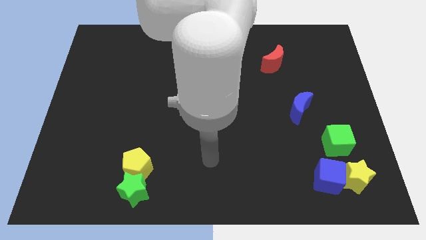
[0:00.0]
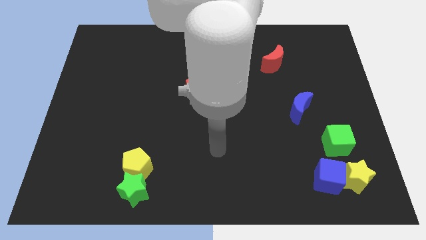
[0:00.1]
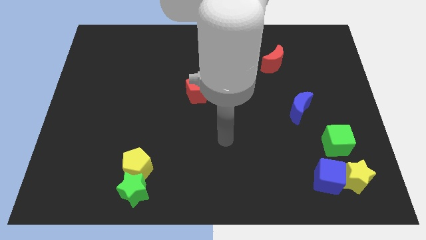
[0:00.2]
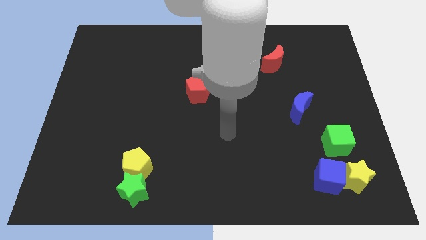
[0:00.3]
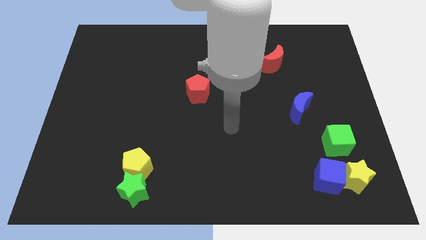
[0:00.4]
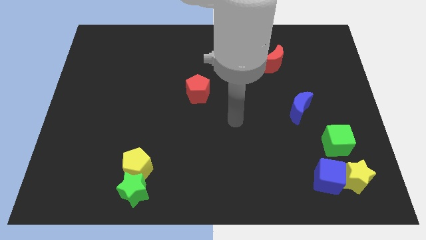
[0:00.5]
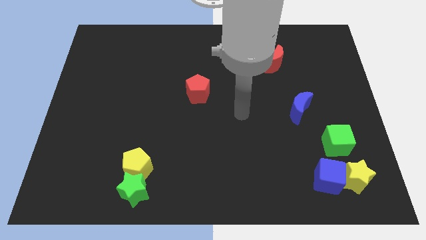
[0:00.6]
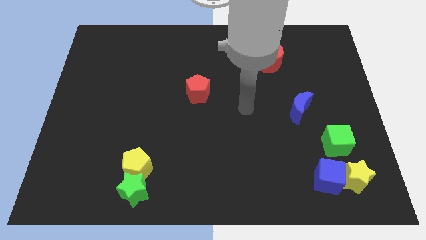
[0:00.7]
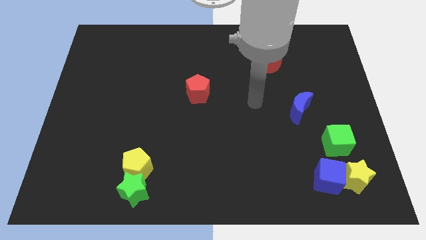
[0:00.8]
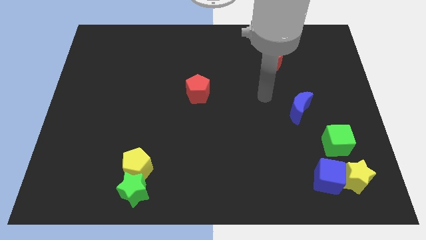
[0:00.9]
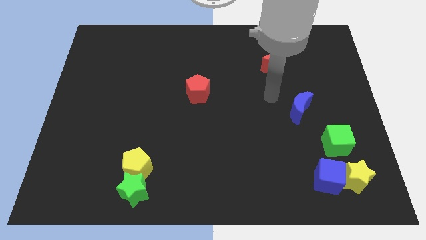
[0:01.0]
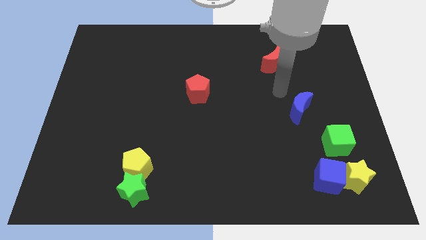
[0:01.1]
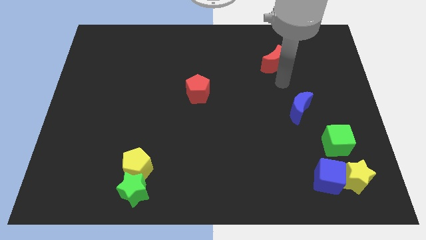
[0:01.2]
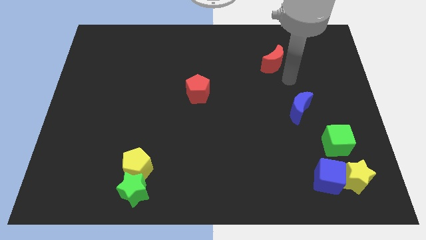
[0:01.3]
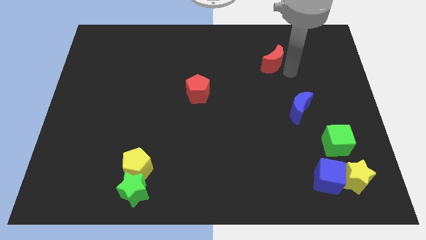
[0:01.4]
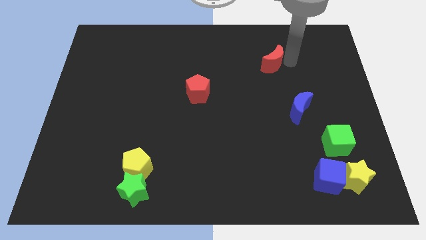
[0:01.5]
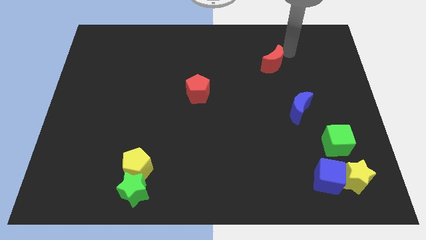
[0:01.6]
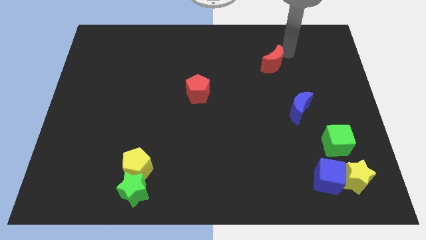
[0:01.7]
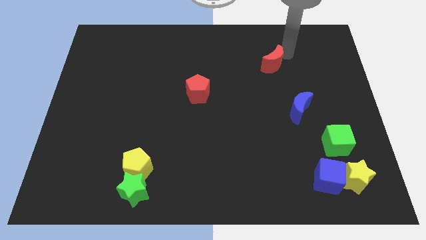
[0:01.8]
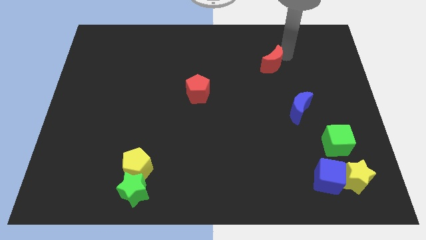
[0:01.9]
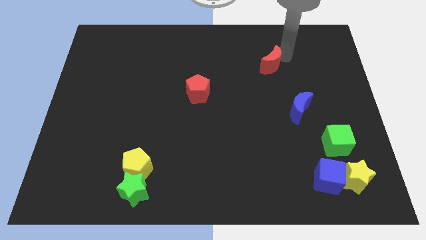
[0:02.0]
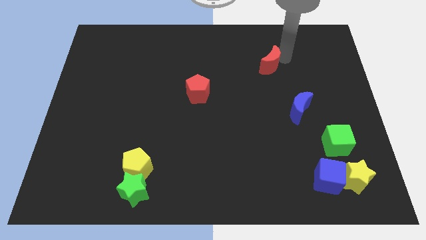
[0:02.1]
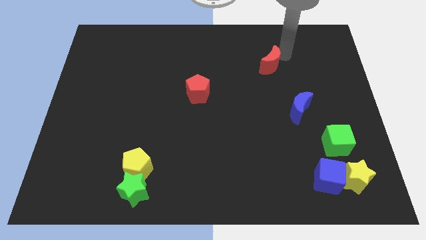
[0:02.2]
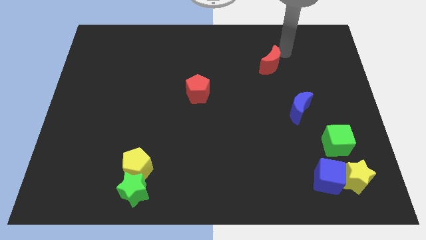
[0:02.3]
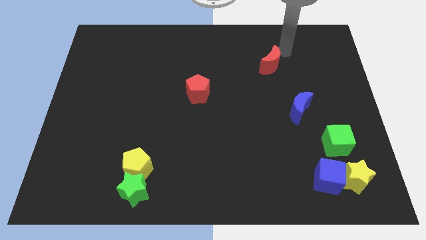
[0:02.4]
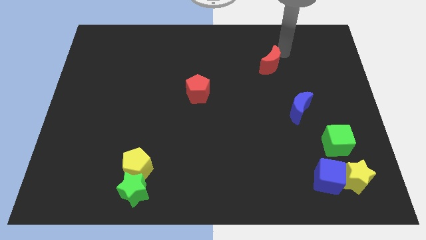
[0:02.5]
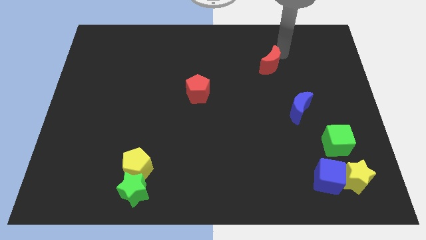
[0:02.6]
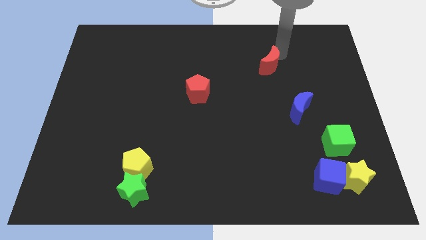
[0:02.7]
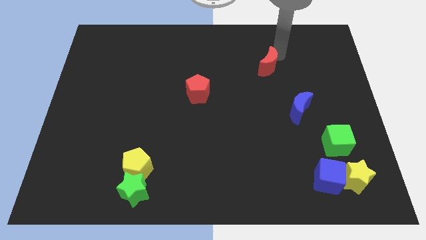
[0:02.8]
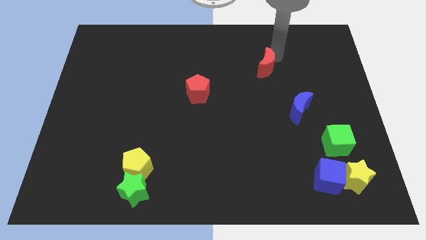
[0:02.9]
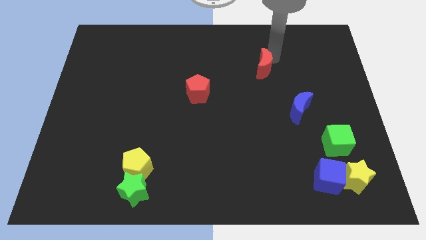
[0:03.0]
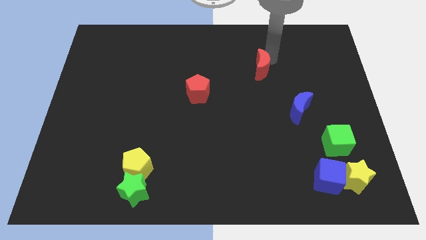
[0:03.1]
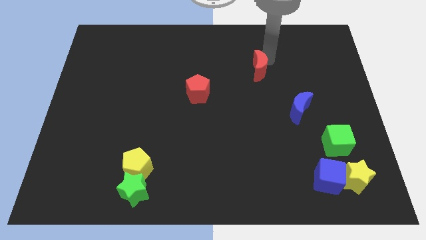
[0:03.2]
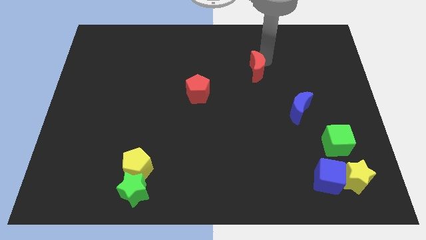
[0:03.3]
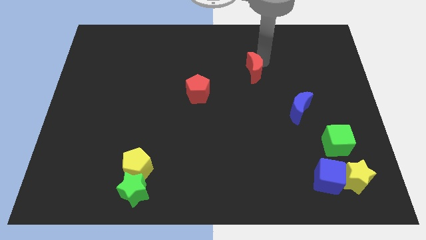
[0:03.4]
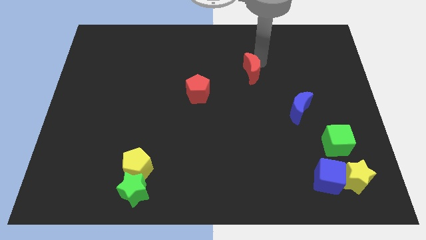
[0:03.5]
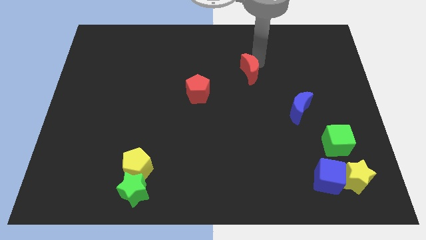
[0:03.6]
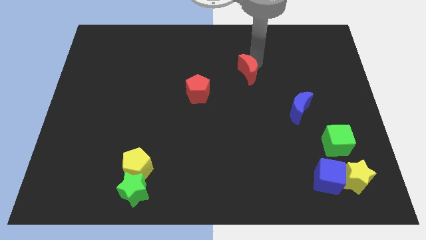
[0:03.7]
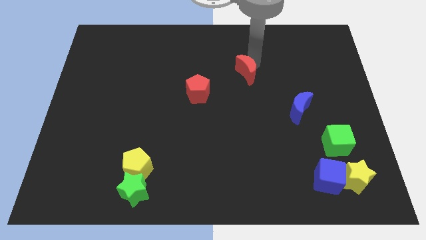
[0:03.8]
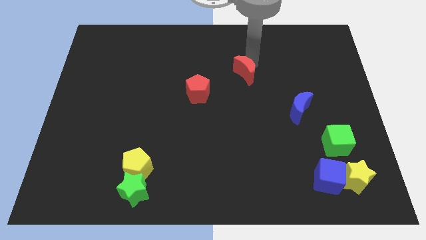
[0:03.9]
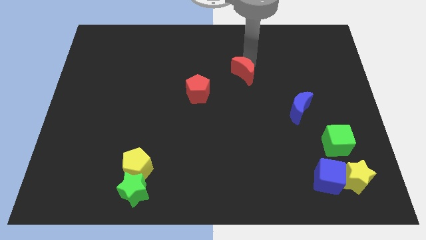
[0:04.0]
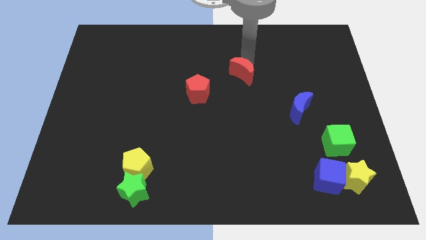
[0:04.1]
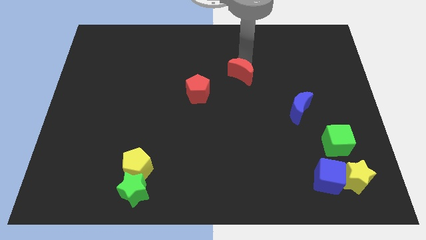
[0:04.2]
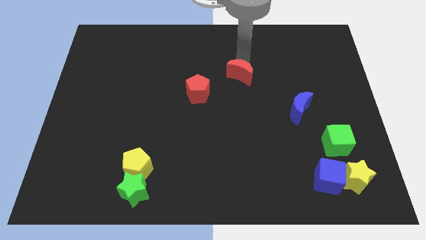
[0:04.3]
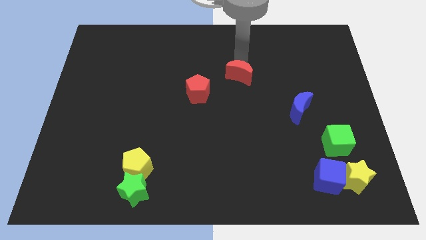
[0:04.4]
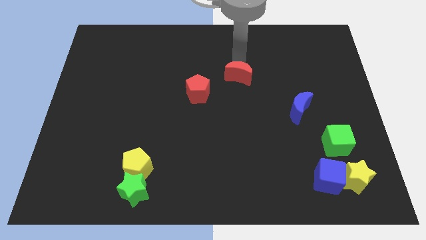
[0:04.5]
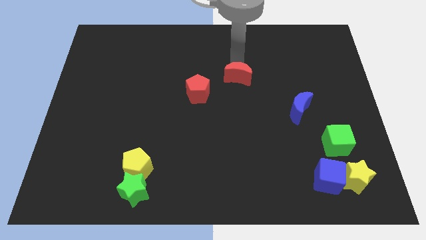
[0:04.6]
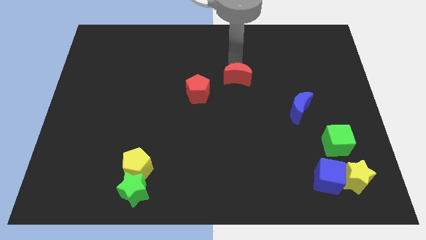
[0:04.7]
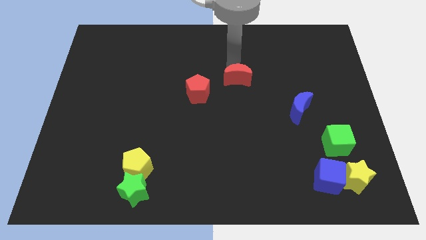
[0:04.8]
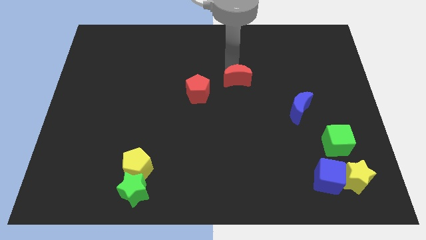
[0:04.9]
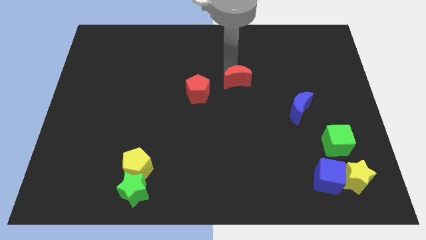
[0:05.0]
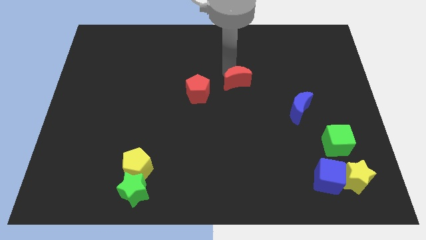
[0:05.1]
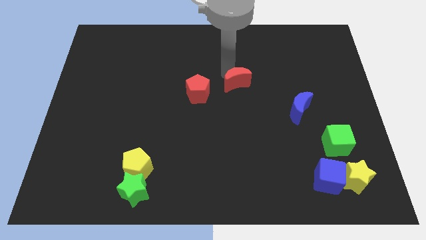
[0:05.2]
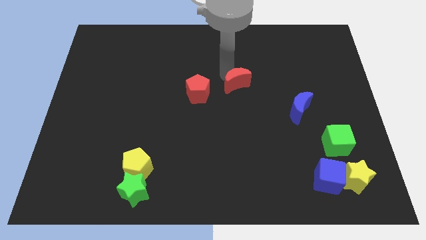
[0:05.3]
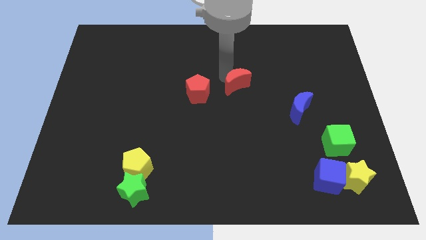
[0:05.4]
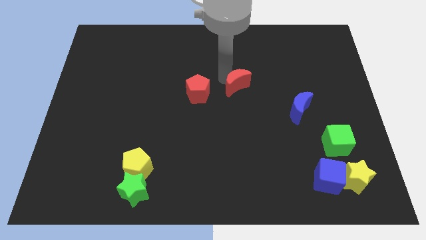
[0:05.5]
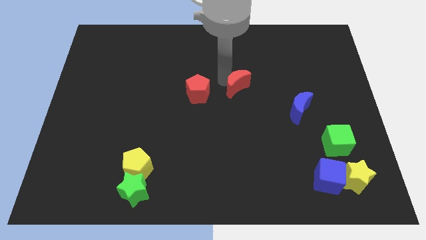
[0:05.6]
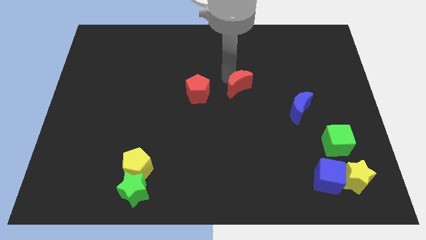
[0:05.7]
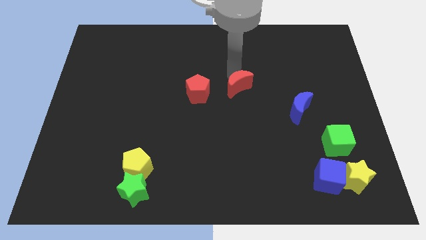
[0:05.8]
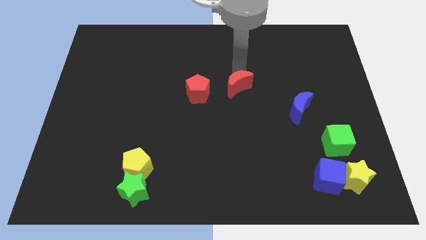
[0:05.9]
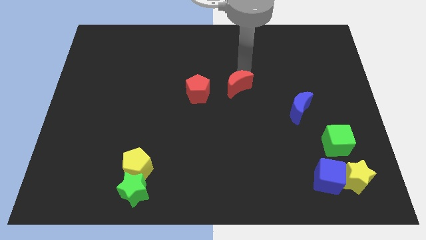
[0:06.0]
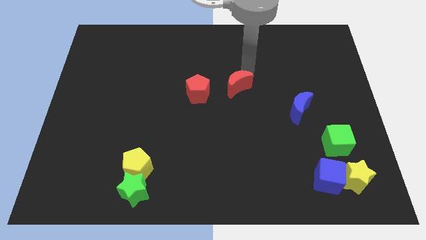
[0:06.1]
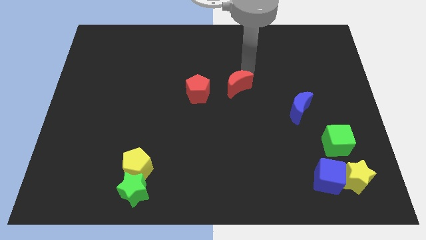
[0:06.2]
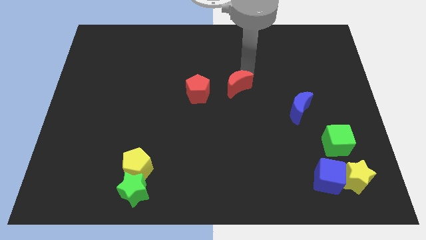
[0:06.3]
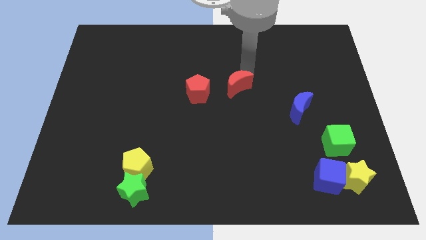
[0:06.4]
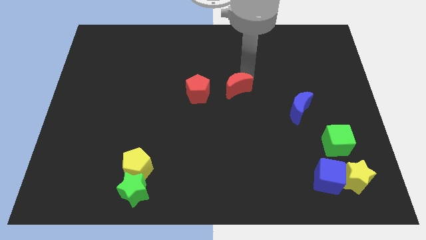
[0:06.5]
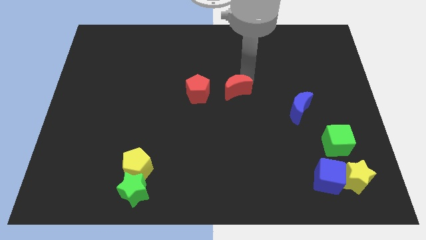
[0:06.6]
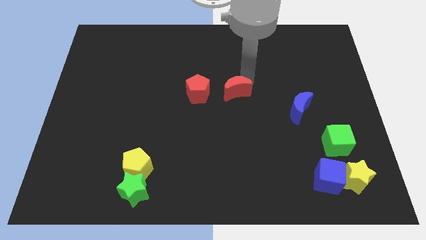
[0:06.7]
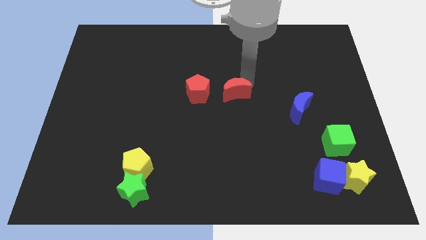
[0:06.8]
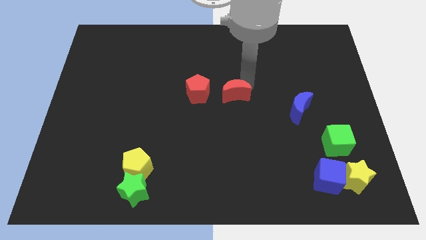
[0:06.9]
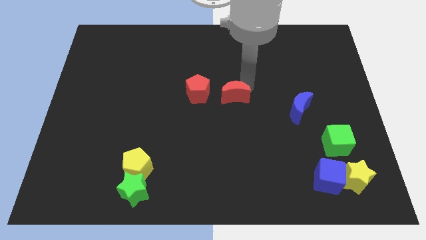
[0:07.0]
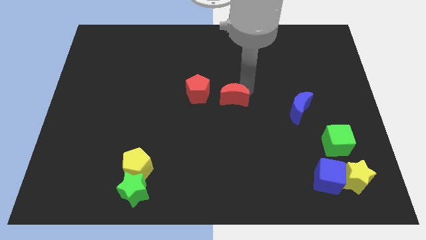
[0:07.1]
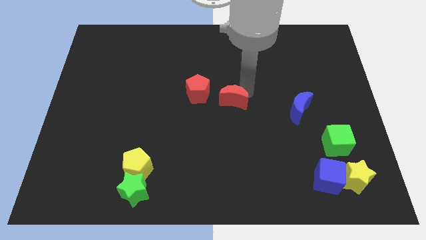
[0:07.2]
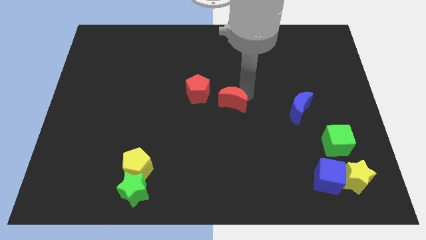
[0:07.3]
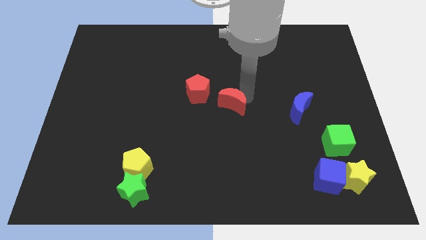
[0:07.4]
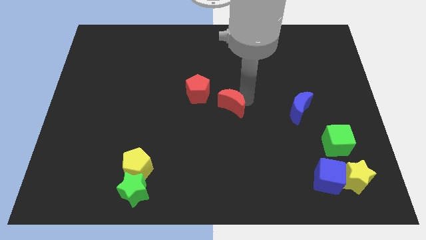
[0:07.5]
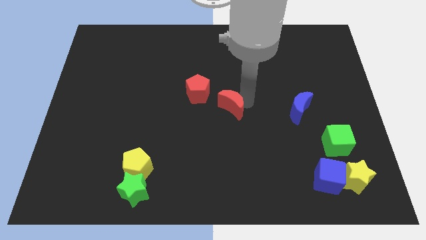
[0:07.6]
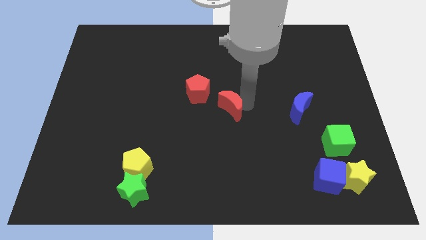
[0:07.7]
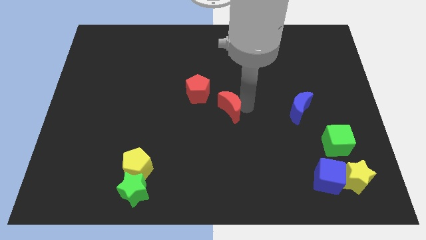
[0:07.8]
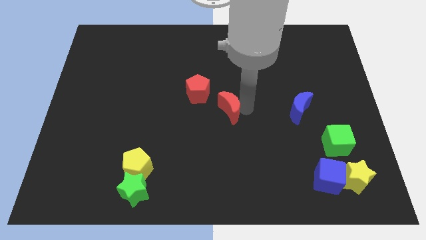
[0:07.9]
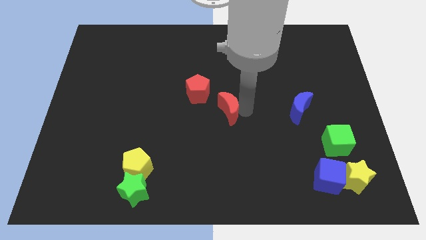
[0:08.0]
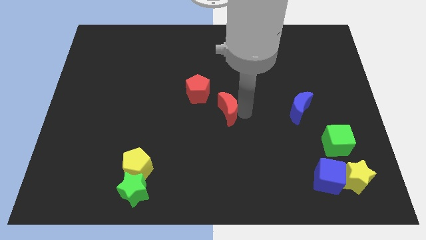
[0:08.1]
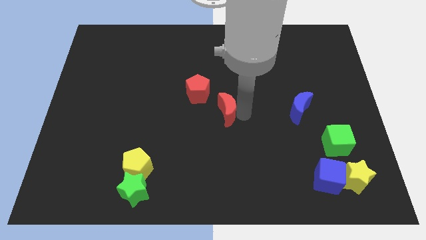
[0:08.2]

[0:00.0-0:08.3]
push the red moon down and left
